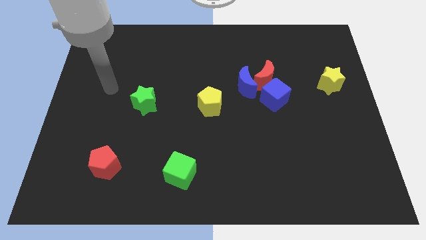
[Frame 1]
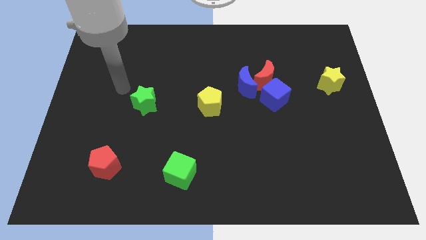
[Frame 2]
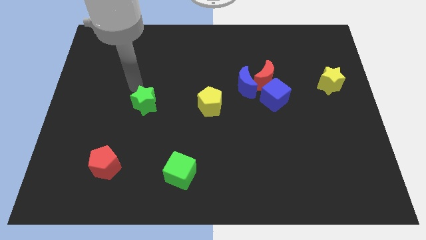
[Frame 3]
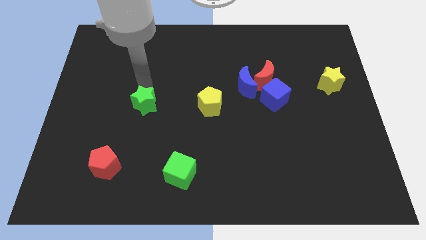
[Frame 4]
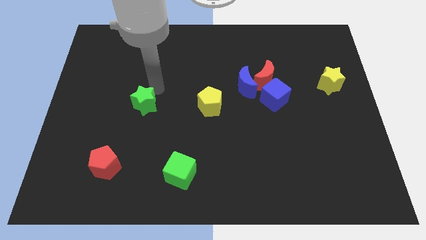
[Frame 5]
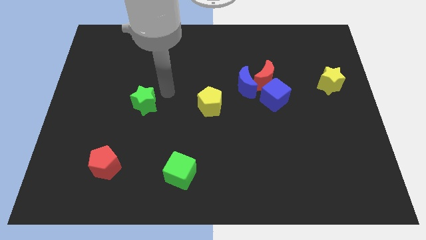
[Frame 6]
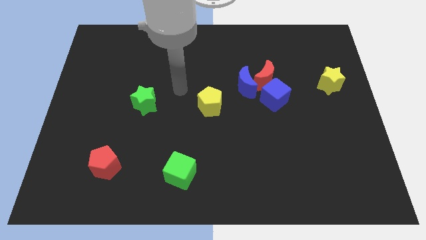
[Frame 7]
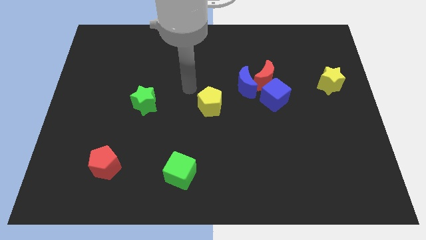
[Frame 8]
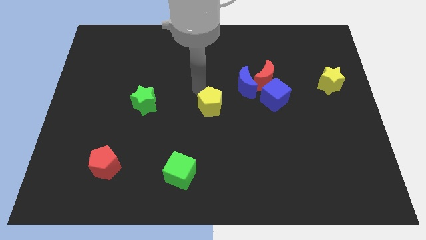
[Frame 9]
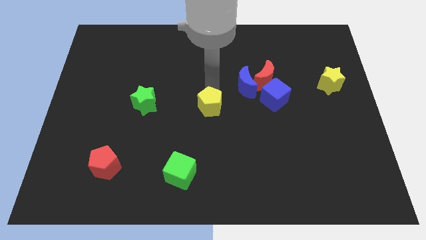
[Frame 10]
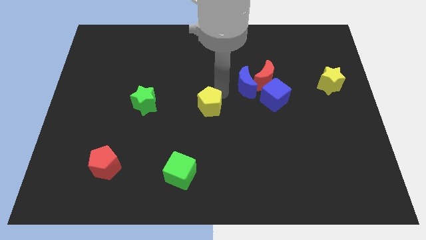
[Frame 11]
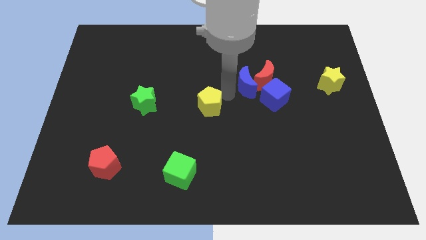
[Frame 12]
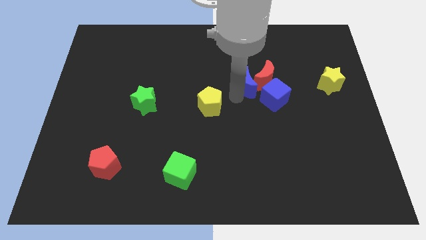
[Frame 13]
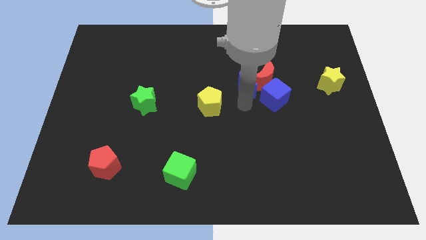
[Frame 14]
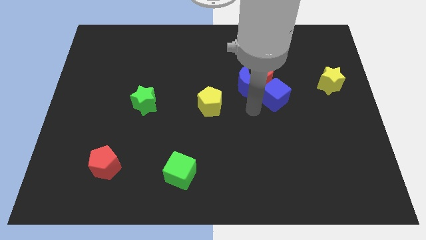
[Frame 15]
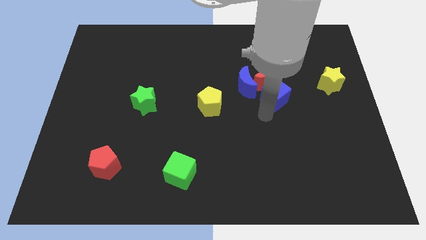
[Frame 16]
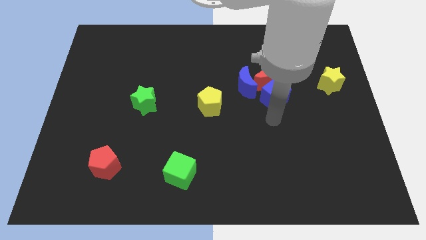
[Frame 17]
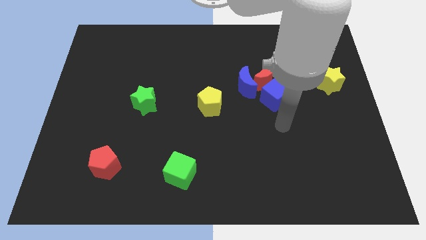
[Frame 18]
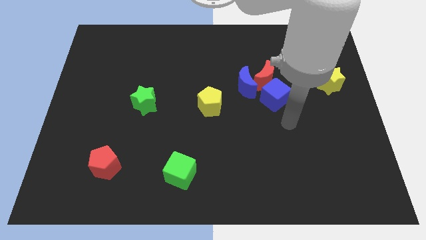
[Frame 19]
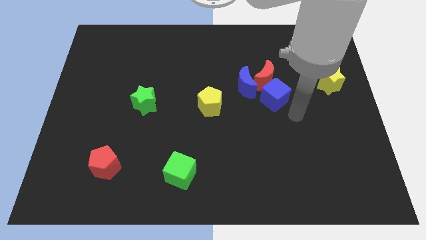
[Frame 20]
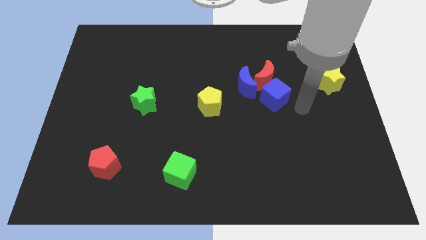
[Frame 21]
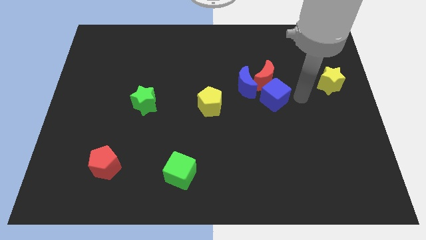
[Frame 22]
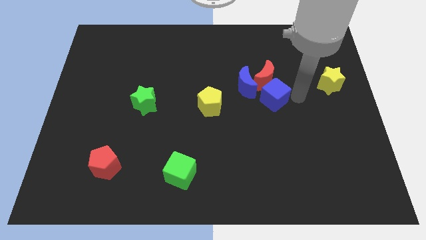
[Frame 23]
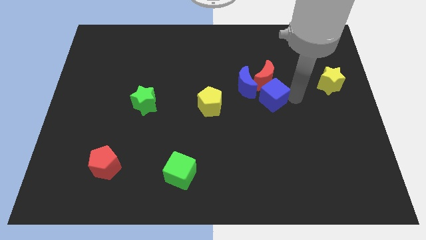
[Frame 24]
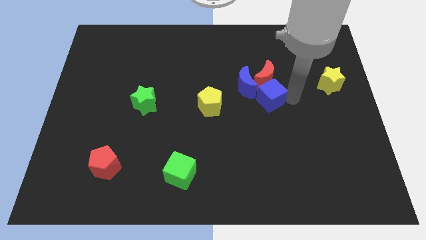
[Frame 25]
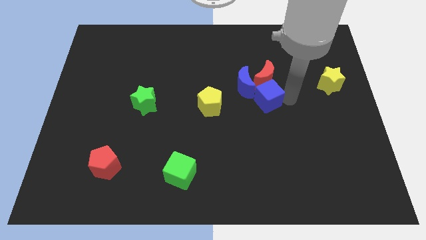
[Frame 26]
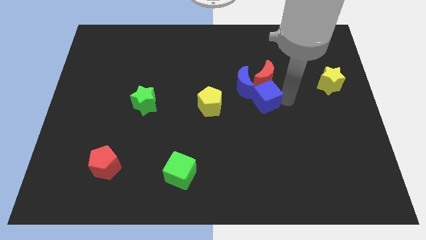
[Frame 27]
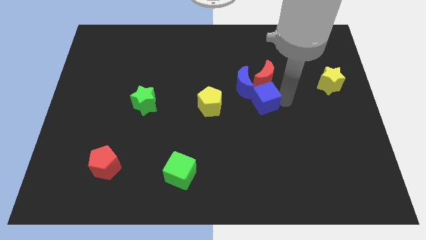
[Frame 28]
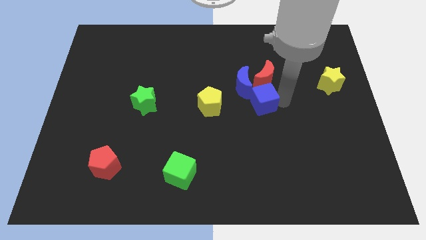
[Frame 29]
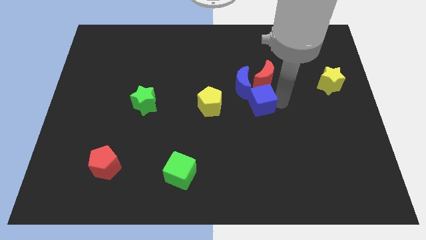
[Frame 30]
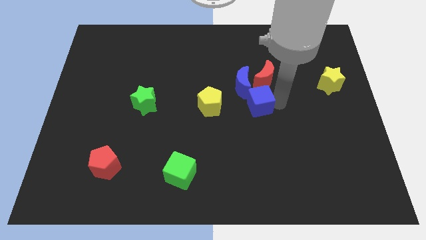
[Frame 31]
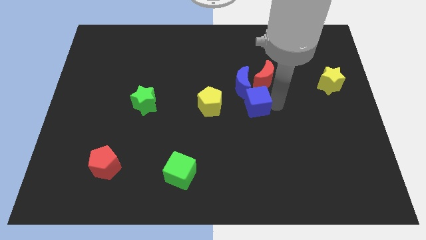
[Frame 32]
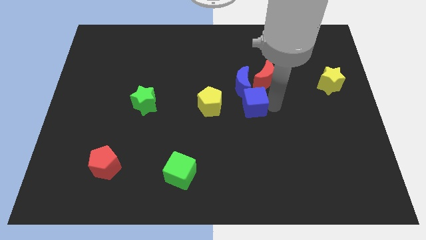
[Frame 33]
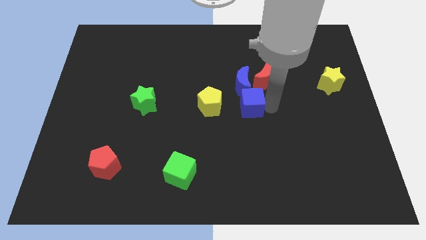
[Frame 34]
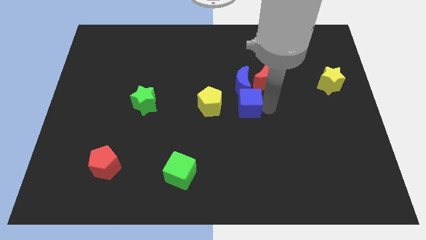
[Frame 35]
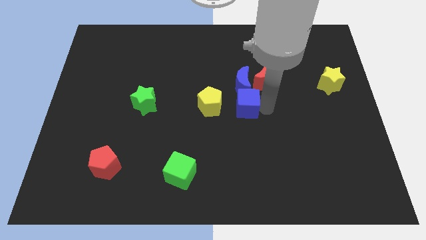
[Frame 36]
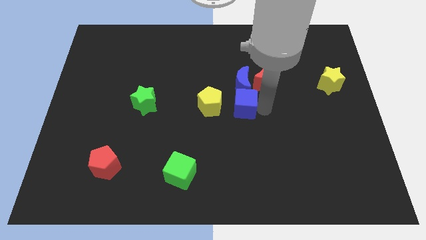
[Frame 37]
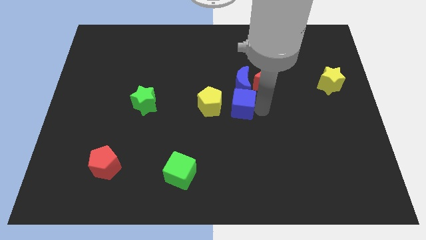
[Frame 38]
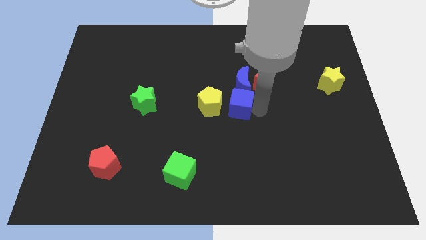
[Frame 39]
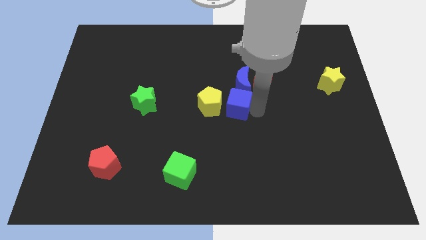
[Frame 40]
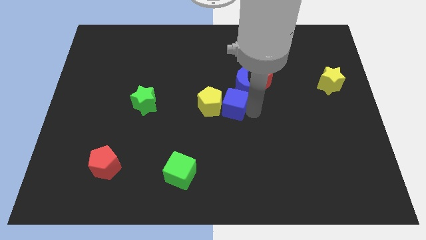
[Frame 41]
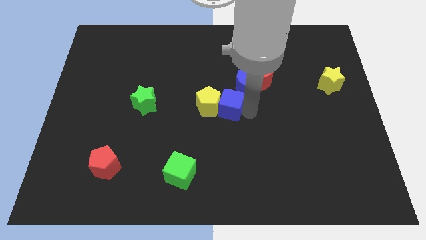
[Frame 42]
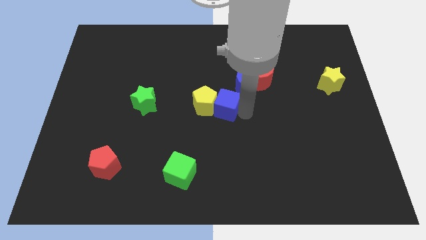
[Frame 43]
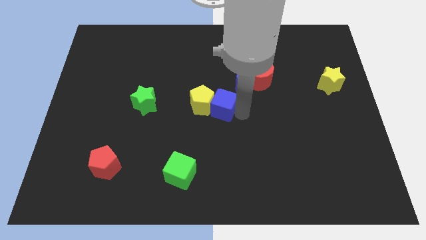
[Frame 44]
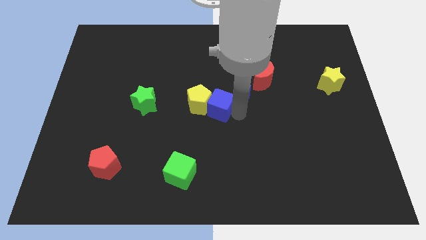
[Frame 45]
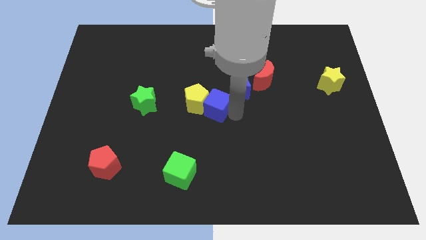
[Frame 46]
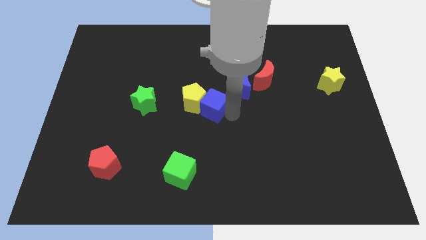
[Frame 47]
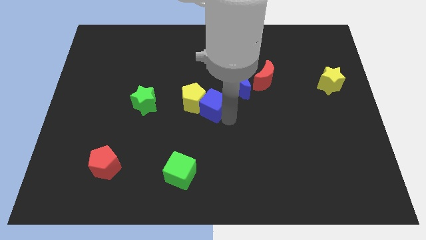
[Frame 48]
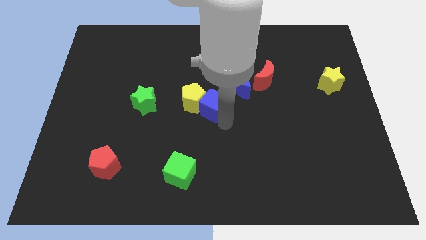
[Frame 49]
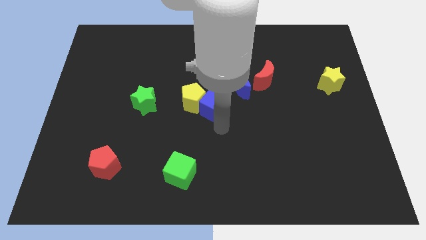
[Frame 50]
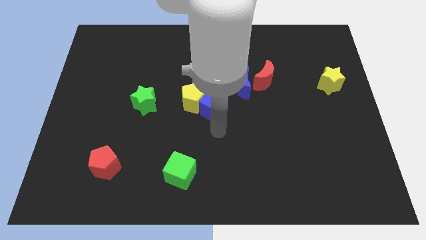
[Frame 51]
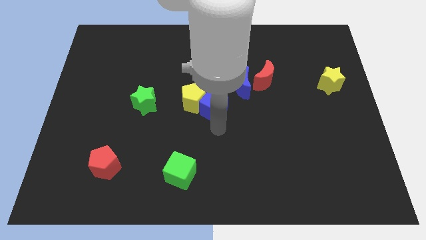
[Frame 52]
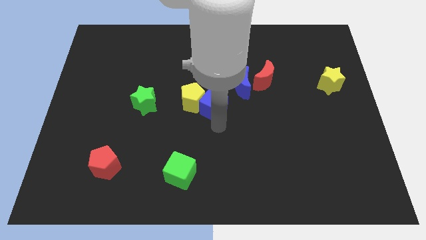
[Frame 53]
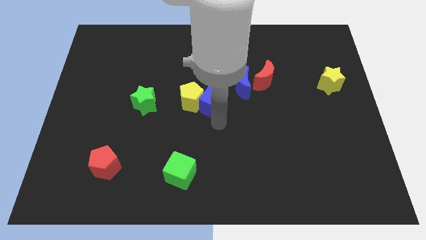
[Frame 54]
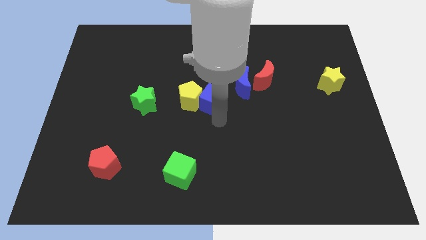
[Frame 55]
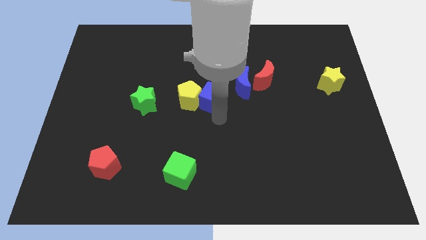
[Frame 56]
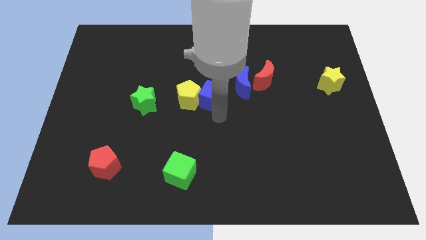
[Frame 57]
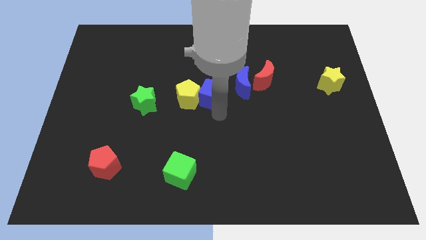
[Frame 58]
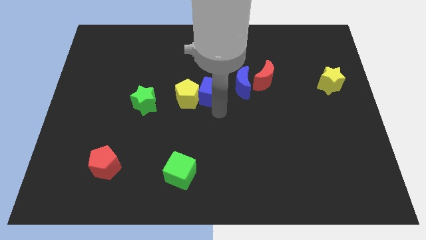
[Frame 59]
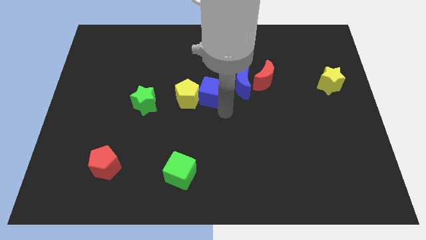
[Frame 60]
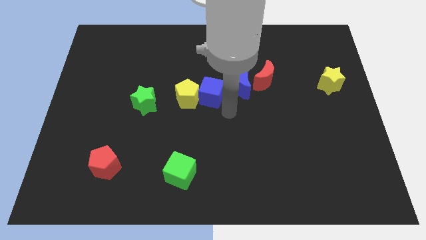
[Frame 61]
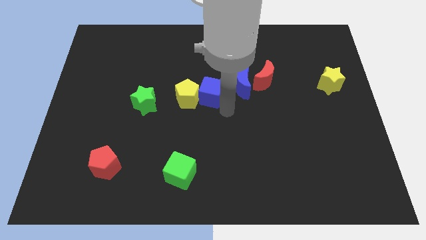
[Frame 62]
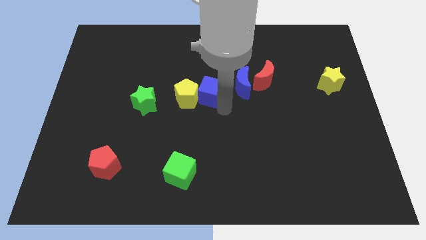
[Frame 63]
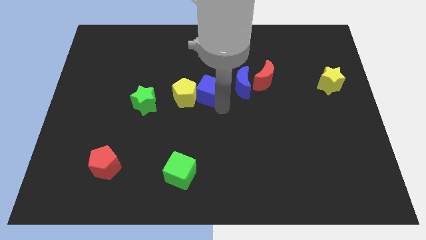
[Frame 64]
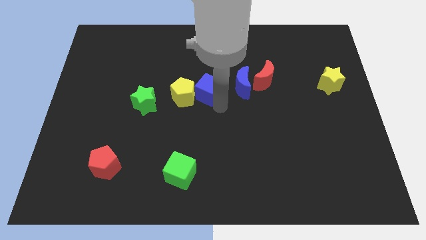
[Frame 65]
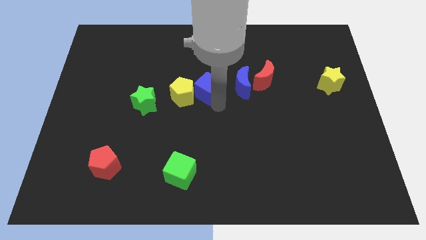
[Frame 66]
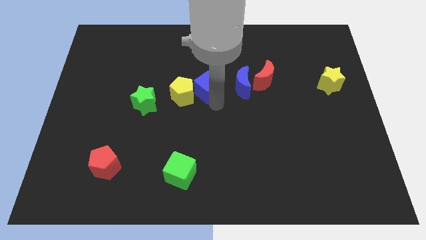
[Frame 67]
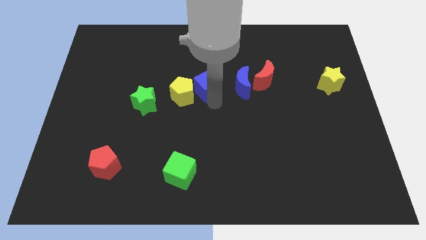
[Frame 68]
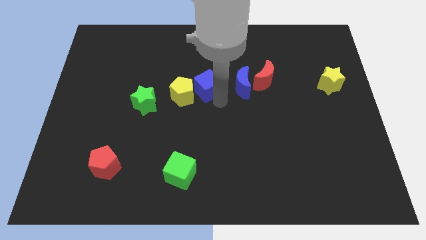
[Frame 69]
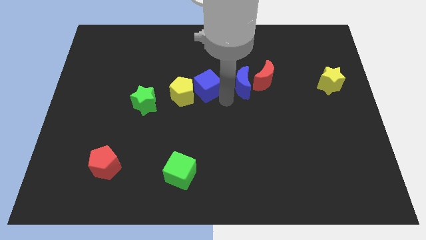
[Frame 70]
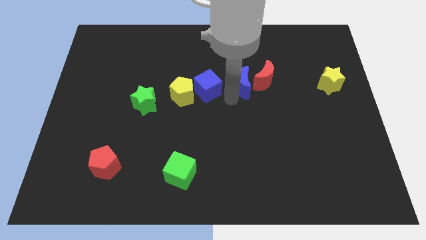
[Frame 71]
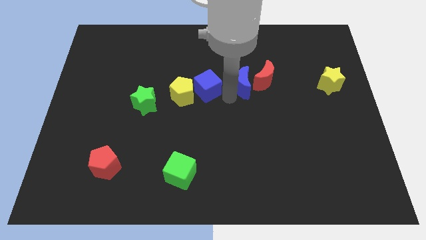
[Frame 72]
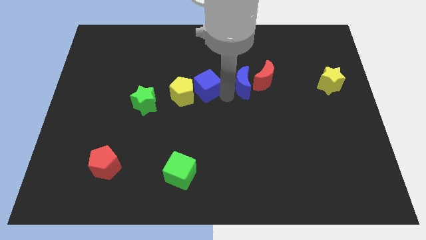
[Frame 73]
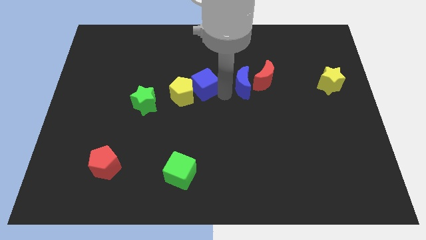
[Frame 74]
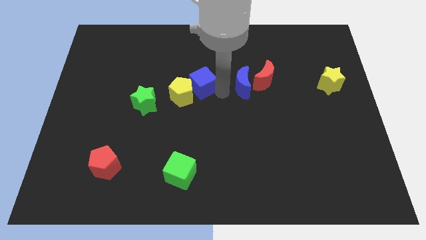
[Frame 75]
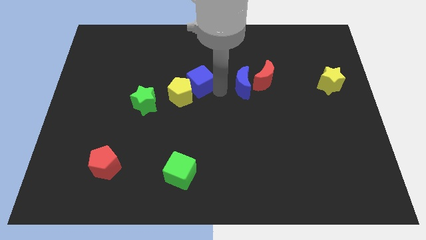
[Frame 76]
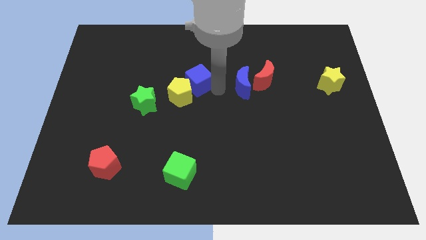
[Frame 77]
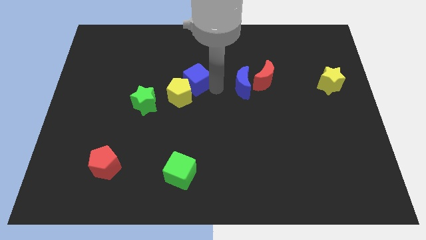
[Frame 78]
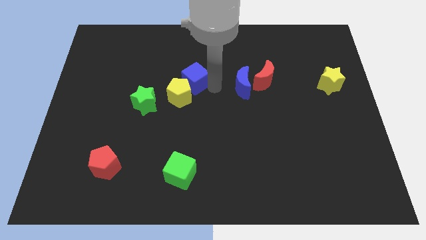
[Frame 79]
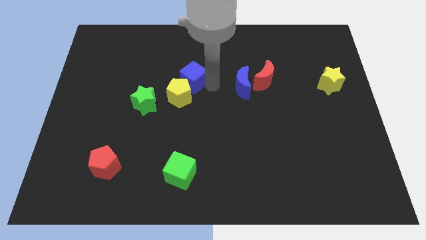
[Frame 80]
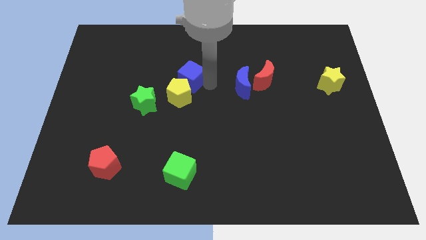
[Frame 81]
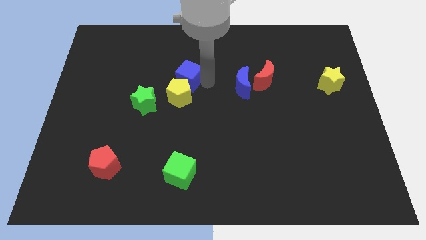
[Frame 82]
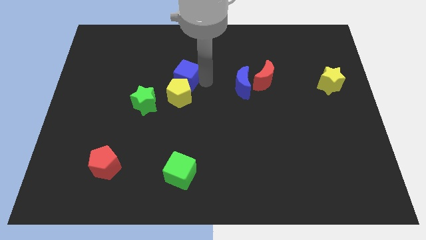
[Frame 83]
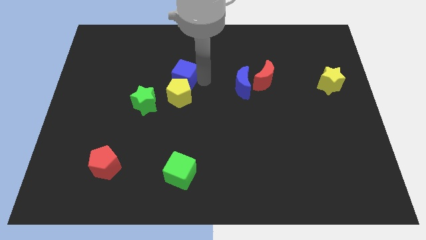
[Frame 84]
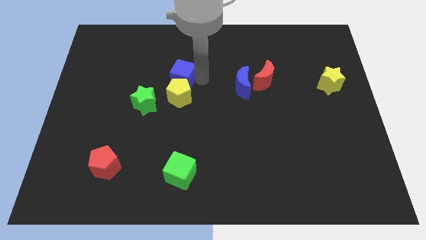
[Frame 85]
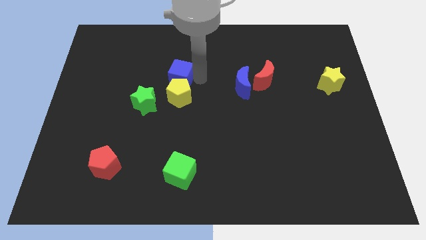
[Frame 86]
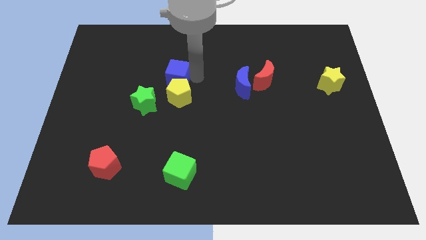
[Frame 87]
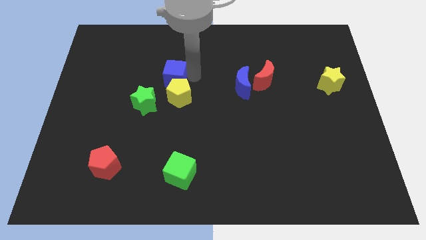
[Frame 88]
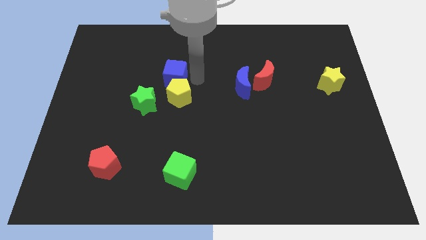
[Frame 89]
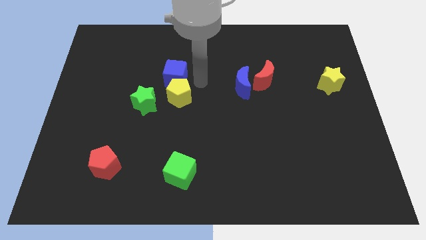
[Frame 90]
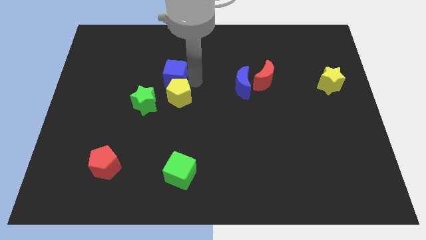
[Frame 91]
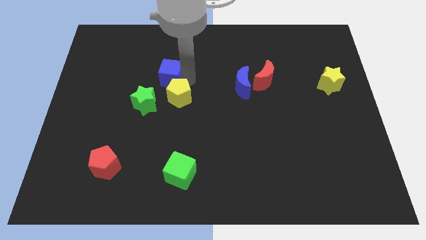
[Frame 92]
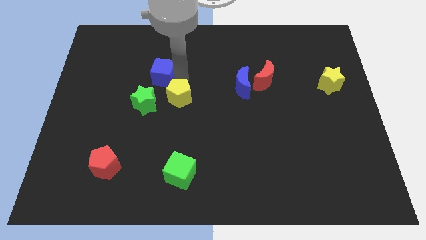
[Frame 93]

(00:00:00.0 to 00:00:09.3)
push the blue cube to the top side of the green star
